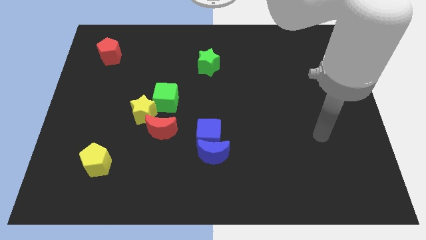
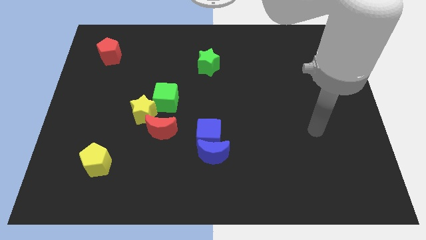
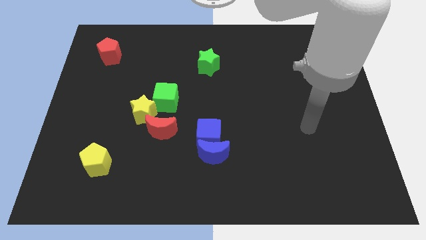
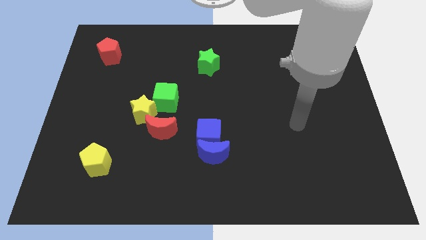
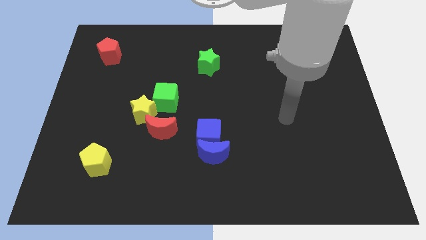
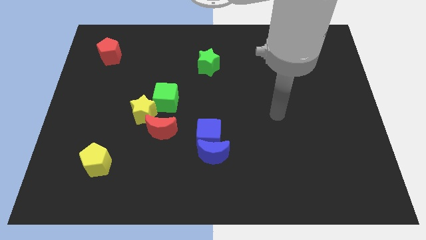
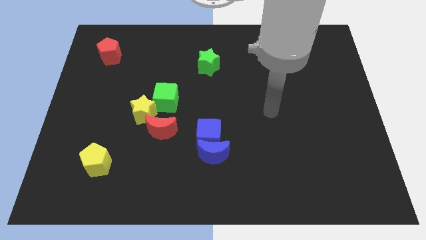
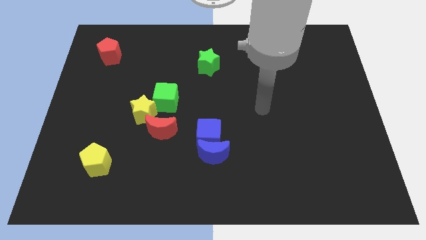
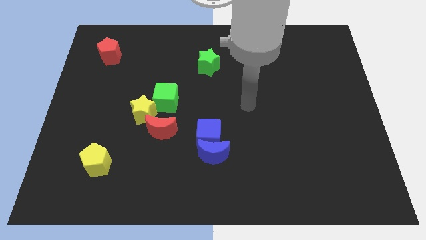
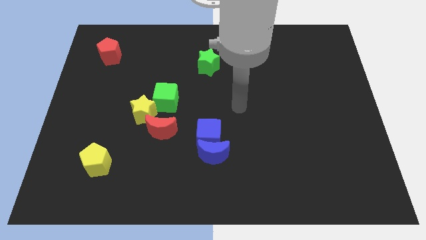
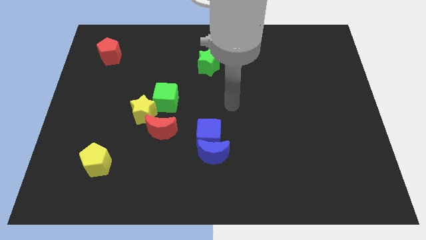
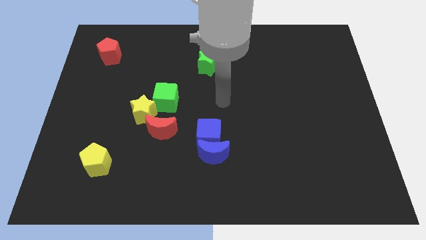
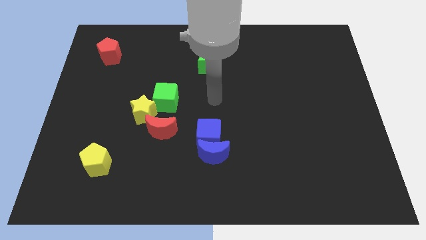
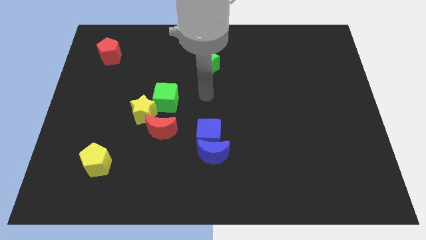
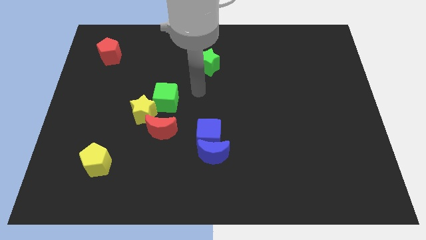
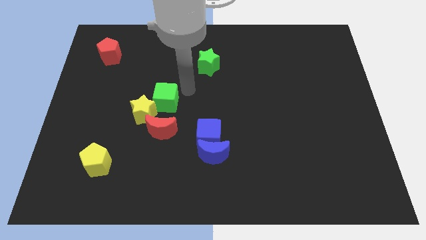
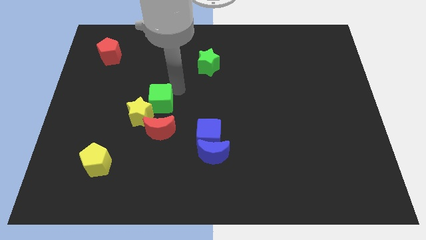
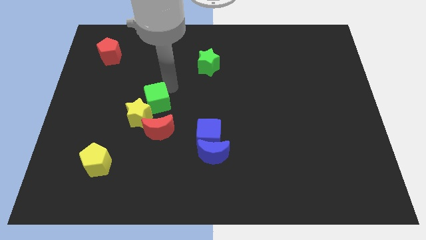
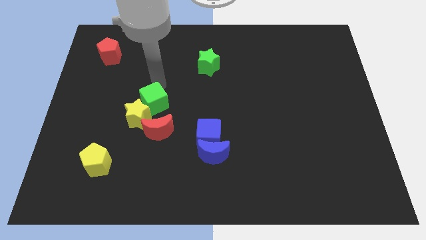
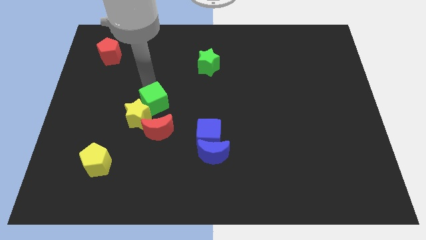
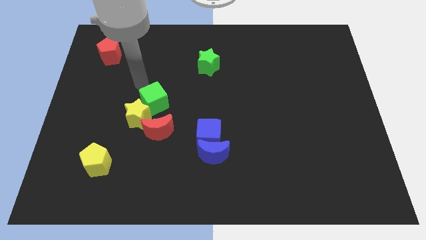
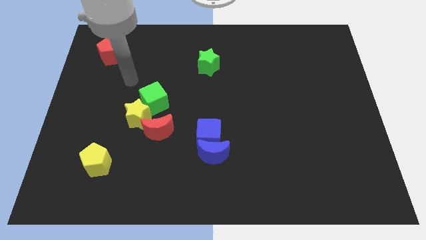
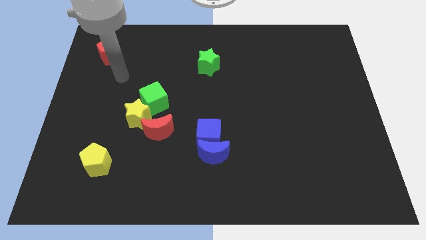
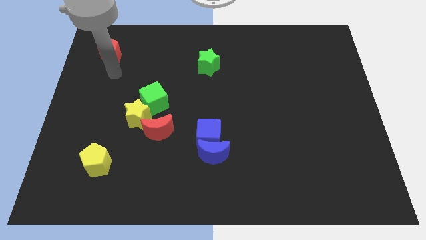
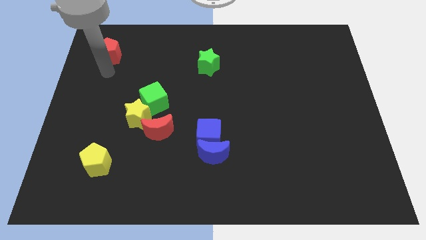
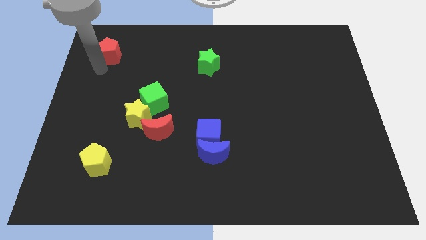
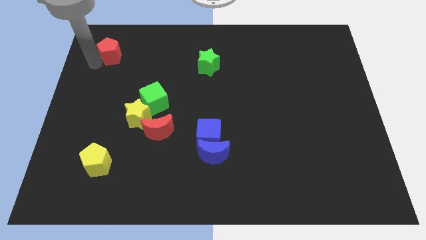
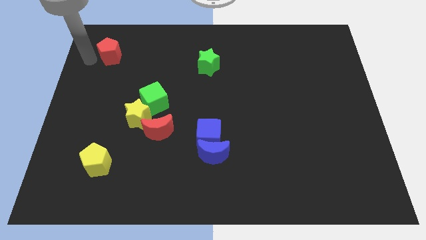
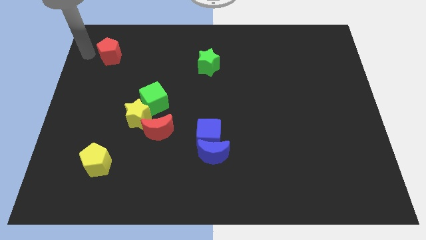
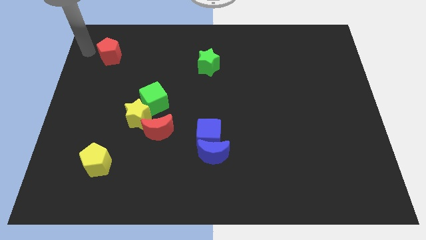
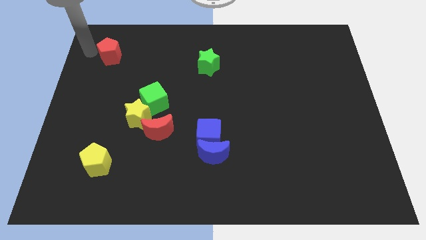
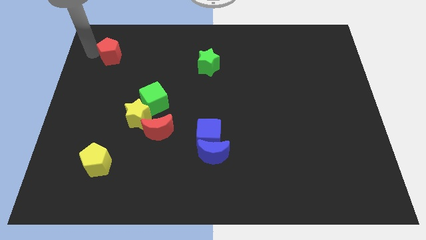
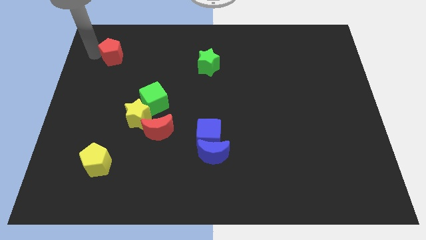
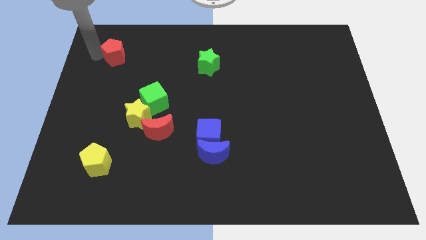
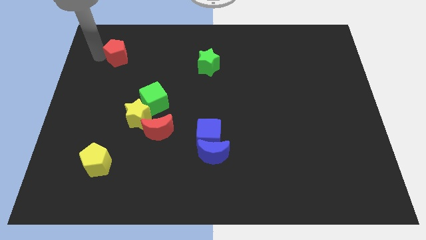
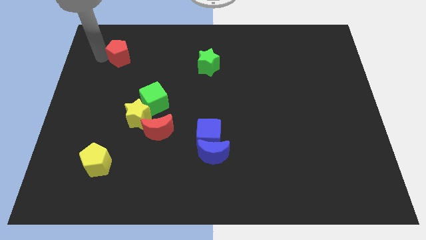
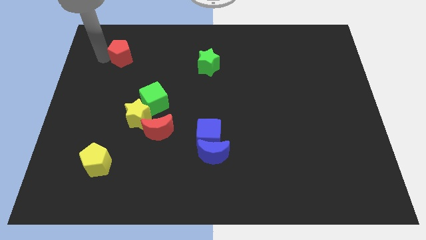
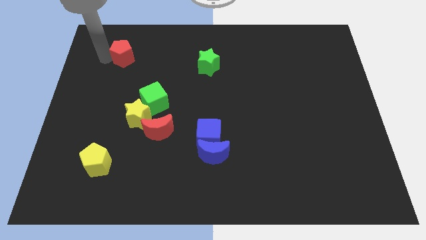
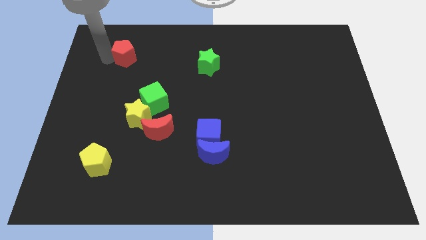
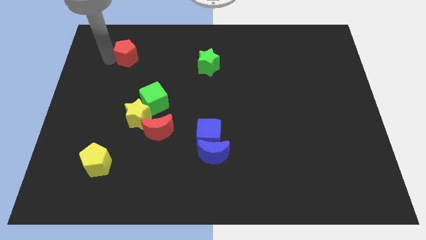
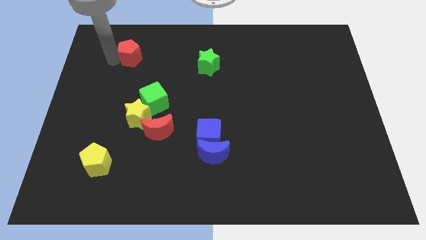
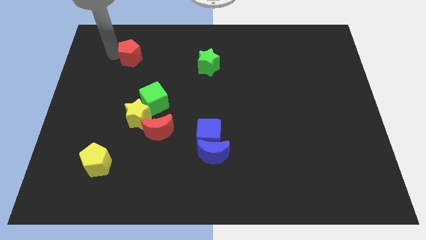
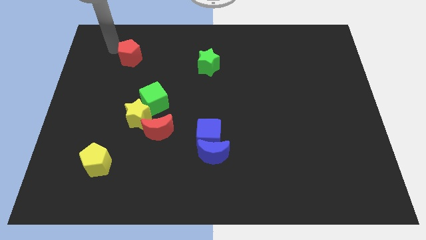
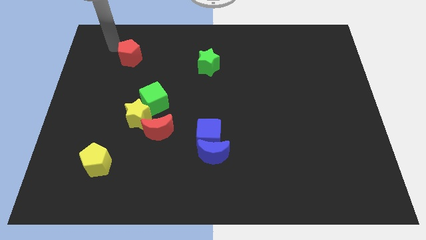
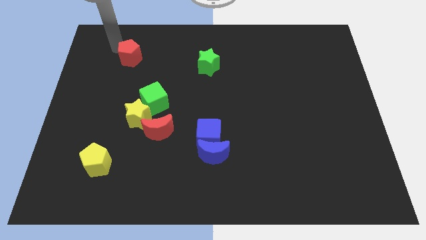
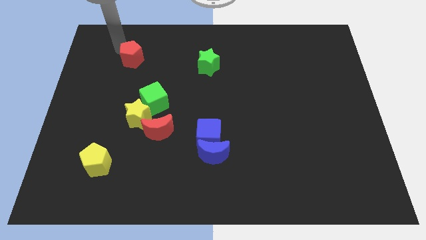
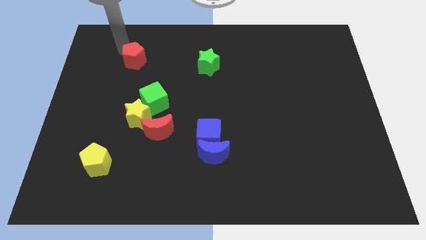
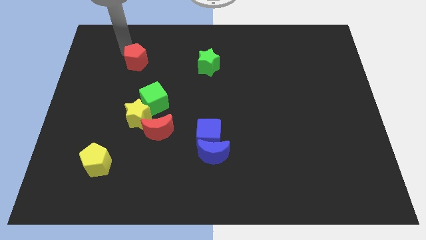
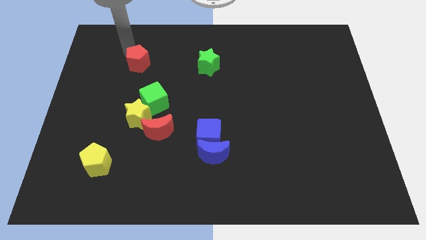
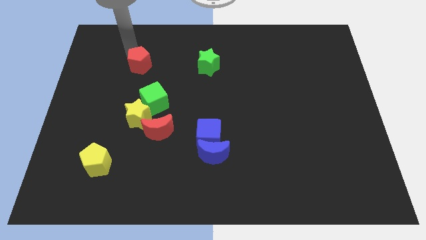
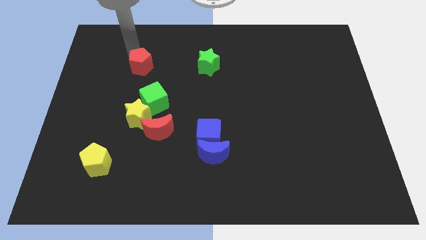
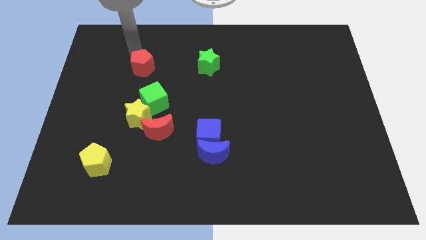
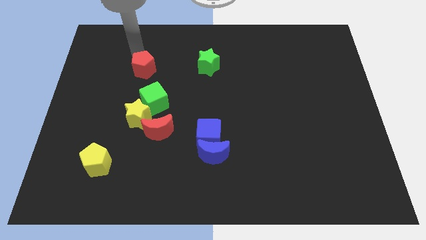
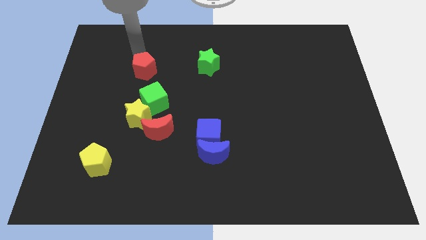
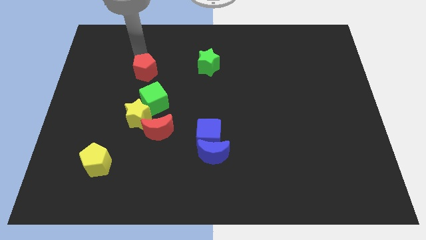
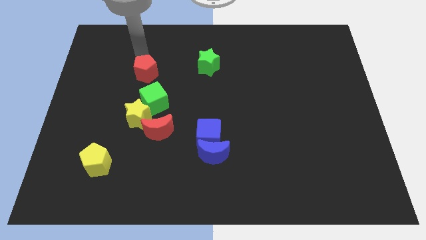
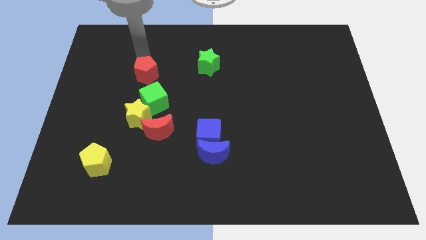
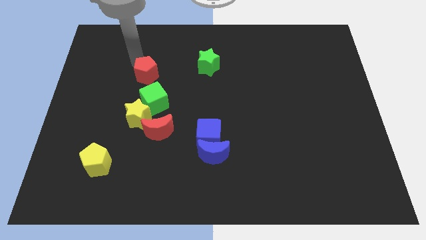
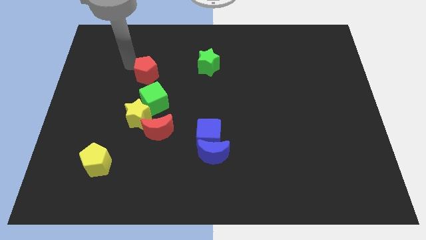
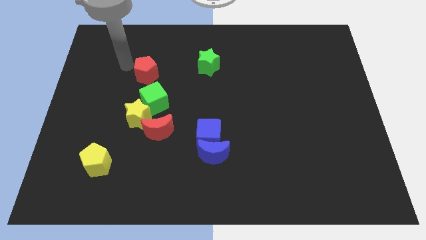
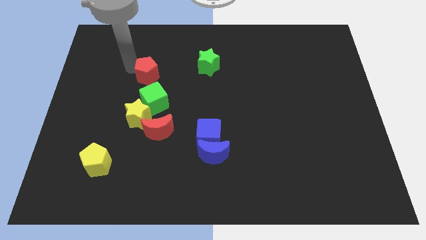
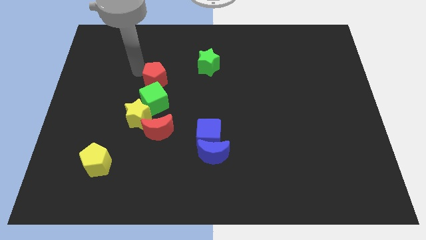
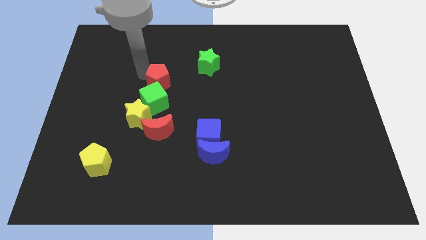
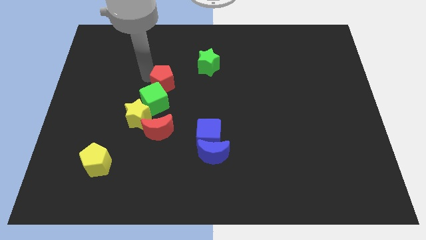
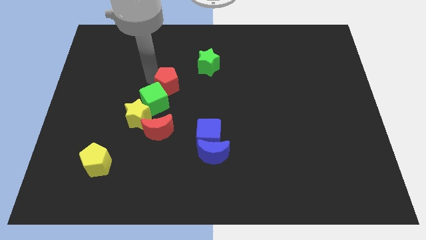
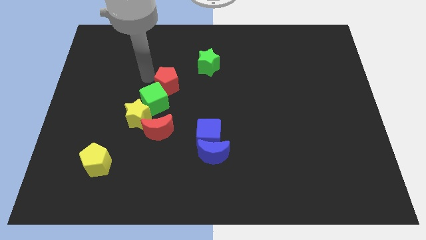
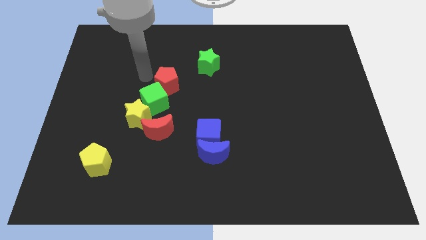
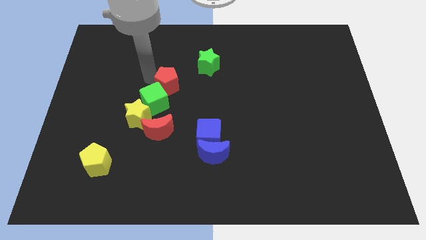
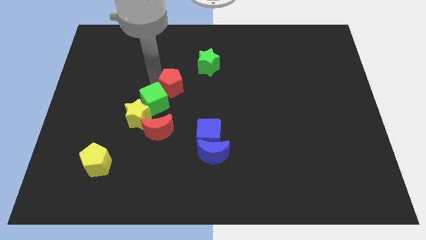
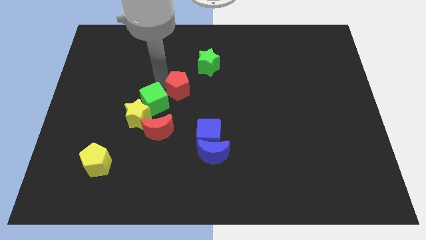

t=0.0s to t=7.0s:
push the red pentagon down and then to the right

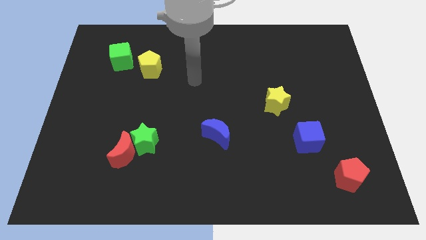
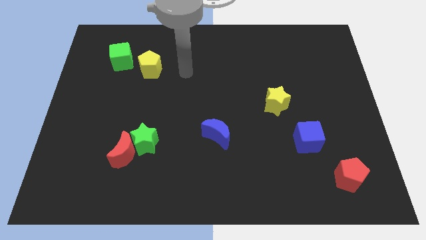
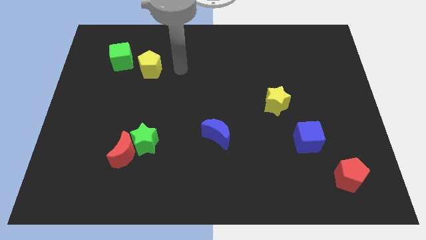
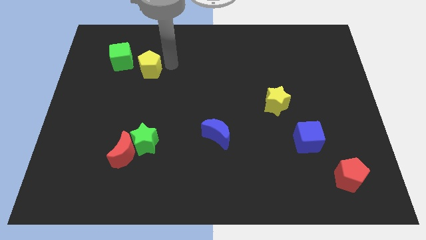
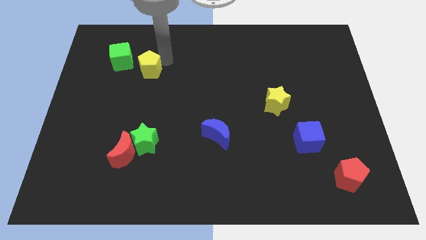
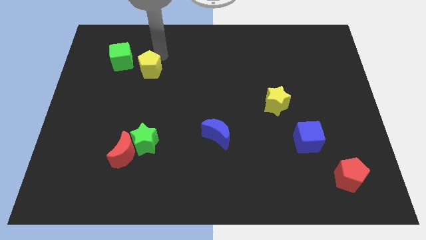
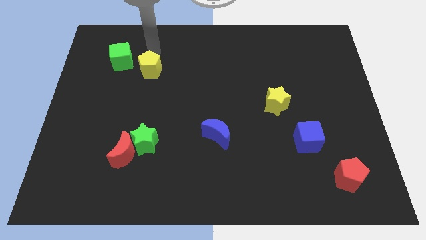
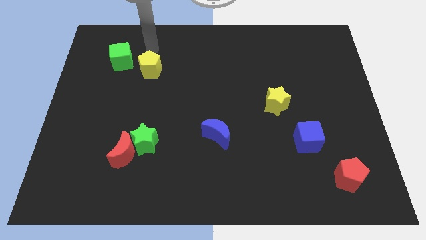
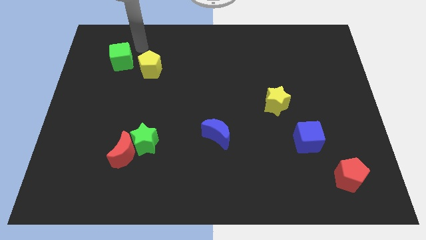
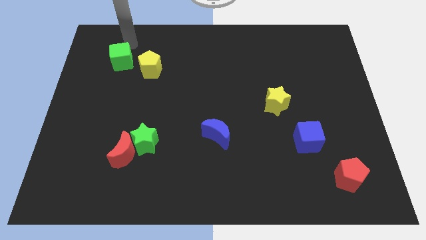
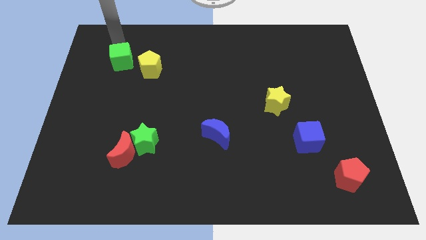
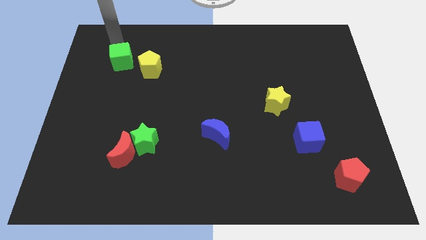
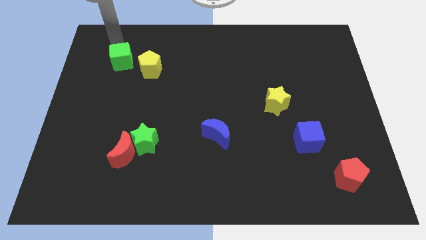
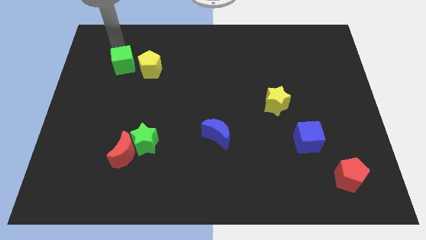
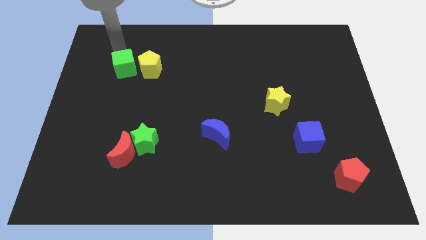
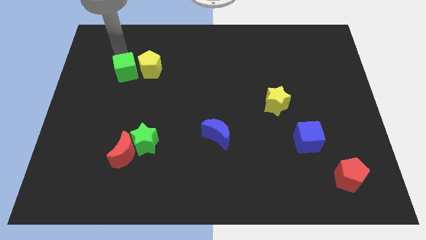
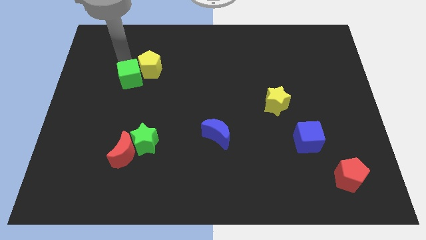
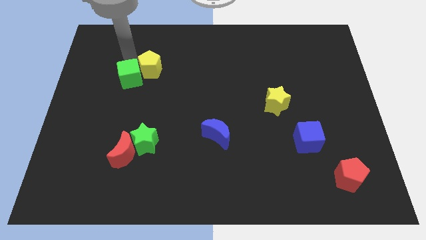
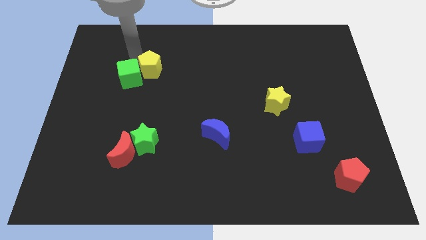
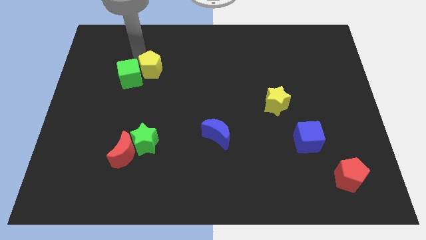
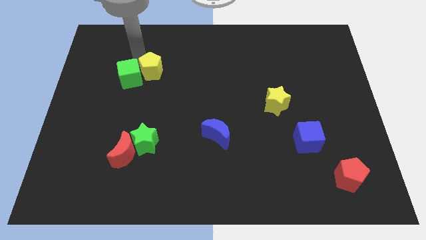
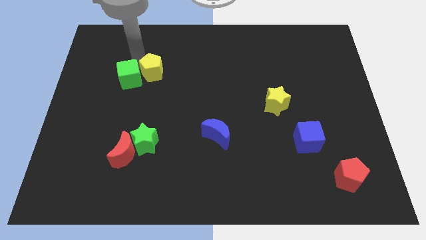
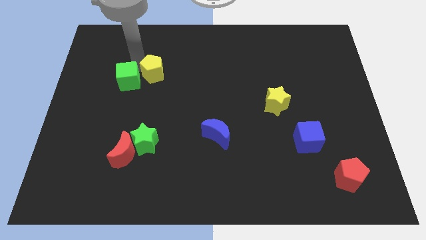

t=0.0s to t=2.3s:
push the green cube downwards slightly
